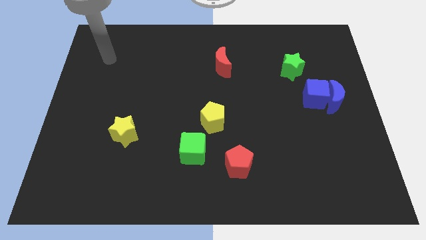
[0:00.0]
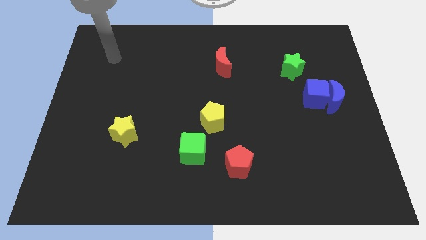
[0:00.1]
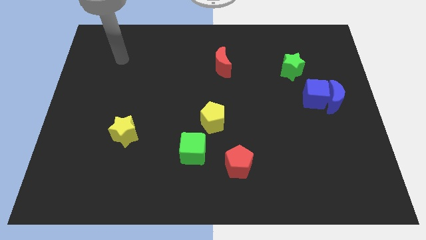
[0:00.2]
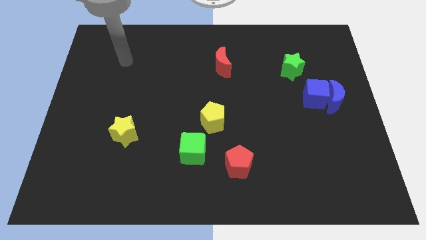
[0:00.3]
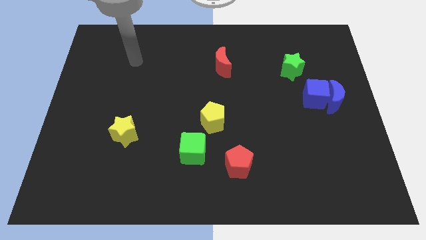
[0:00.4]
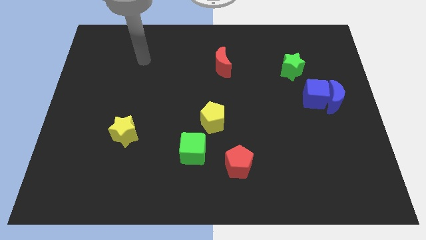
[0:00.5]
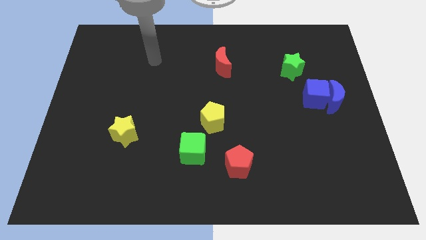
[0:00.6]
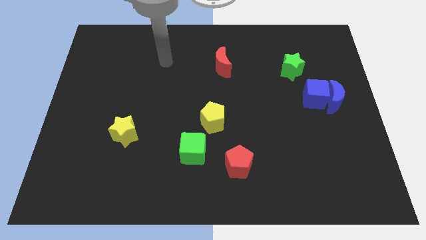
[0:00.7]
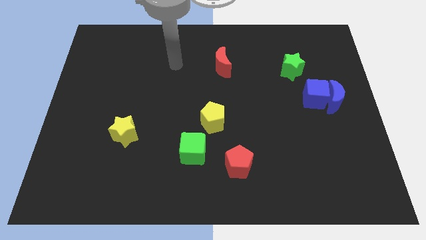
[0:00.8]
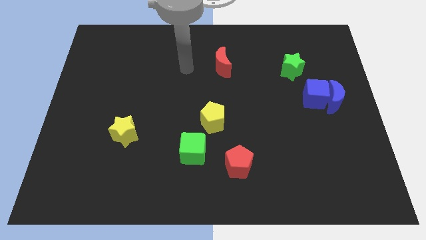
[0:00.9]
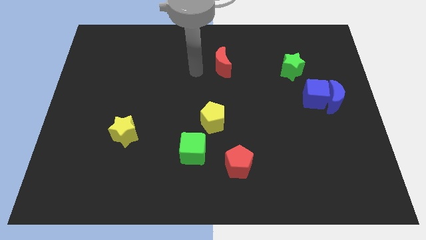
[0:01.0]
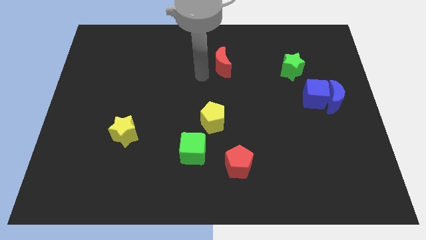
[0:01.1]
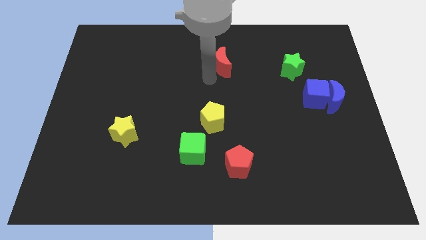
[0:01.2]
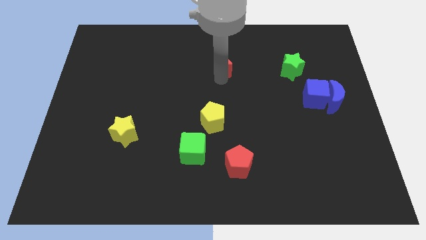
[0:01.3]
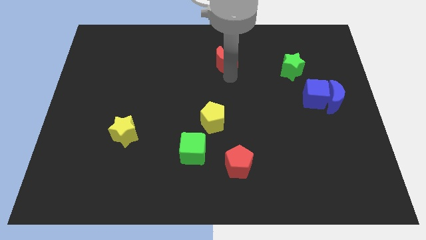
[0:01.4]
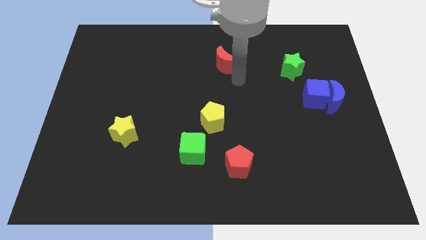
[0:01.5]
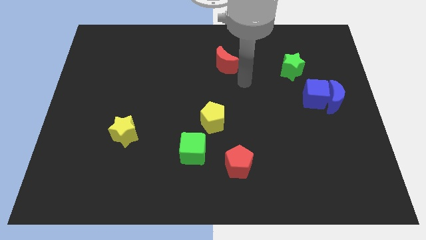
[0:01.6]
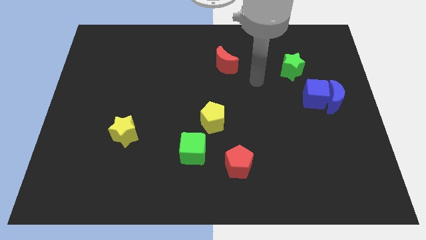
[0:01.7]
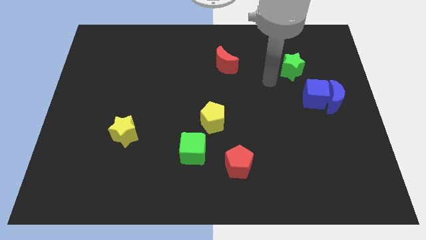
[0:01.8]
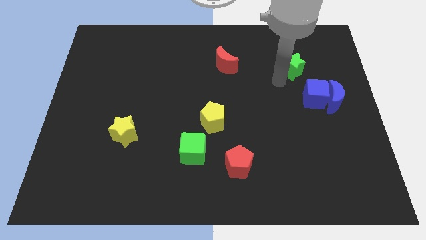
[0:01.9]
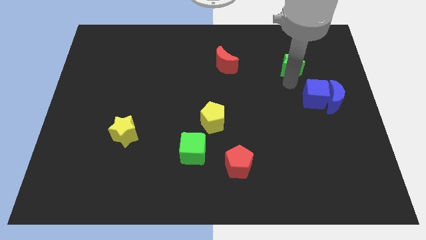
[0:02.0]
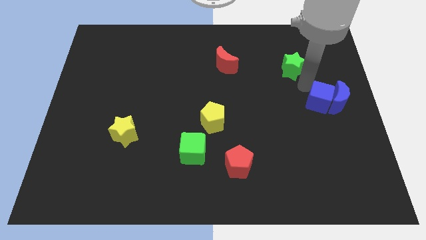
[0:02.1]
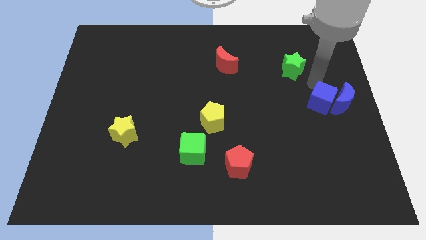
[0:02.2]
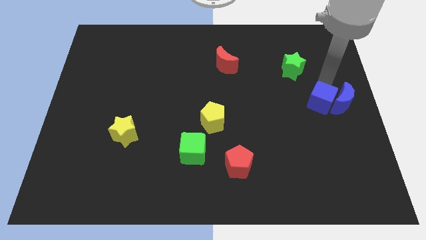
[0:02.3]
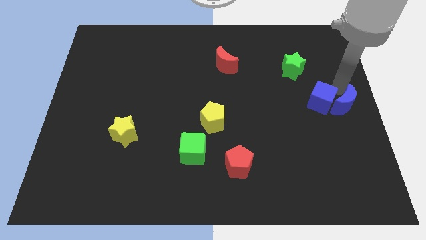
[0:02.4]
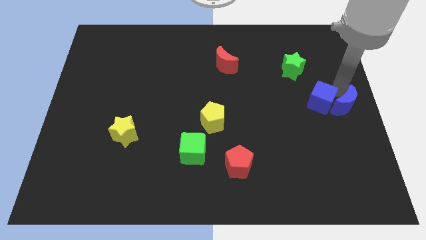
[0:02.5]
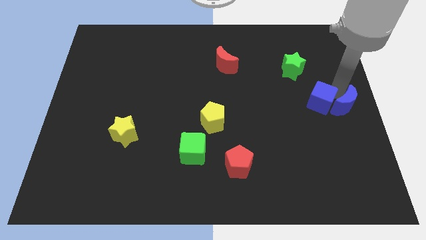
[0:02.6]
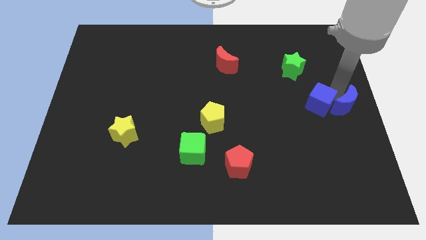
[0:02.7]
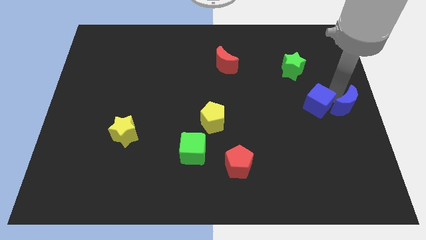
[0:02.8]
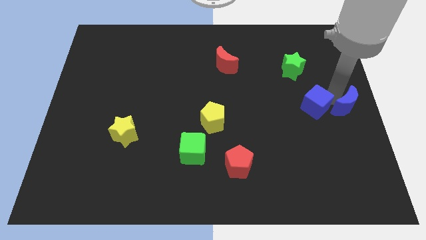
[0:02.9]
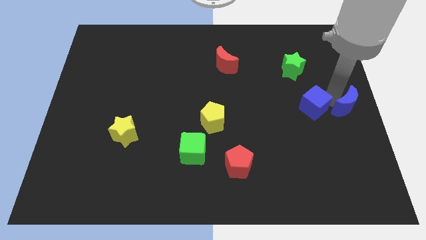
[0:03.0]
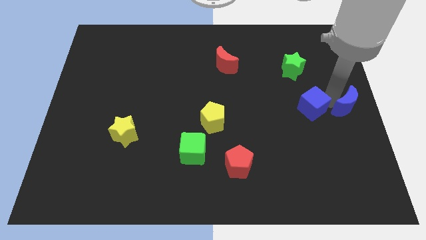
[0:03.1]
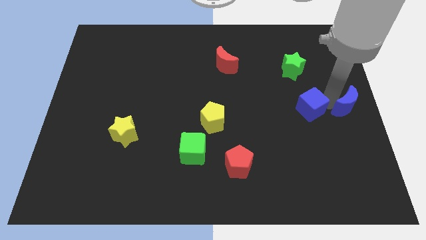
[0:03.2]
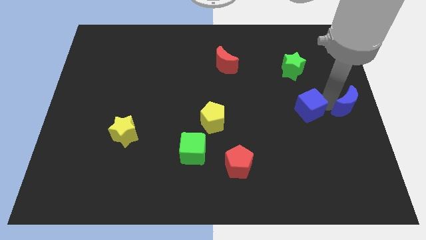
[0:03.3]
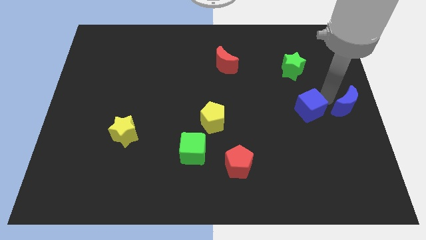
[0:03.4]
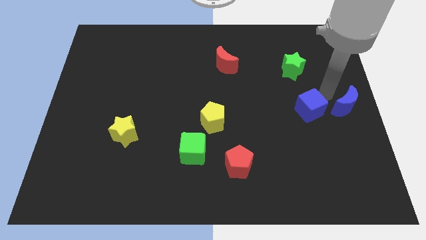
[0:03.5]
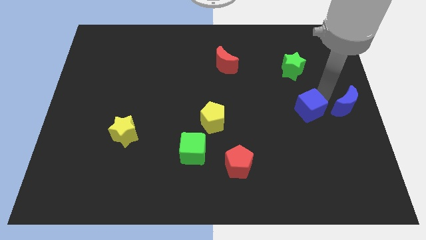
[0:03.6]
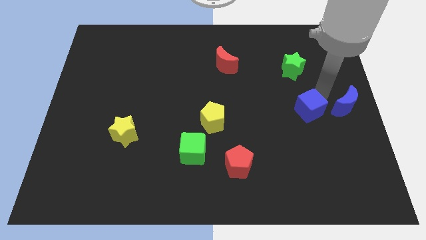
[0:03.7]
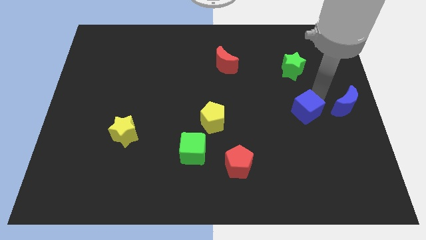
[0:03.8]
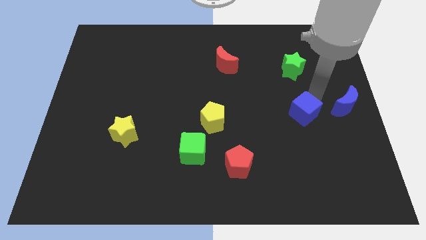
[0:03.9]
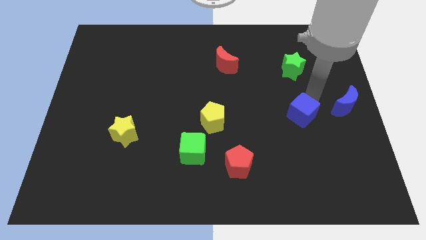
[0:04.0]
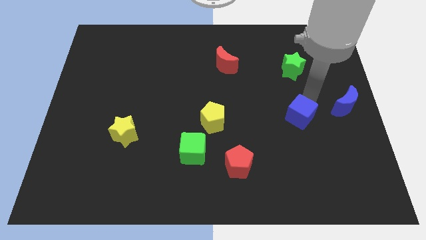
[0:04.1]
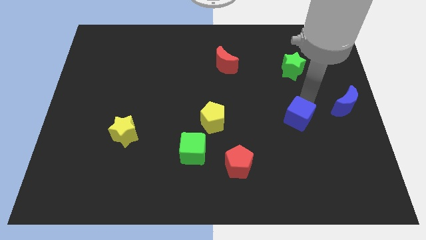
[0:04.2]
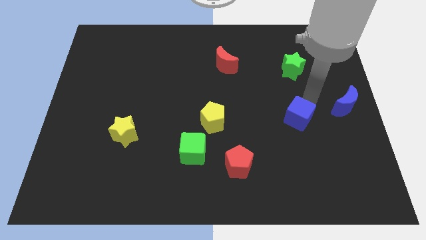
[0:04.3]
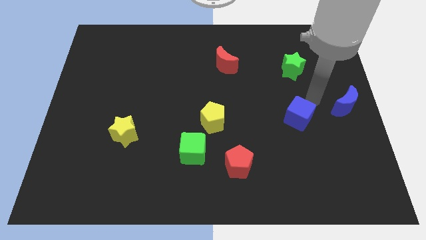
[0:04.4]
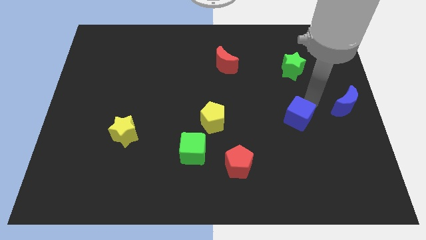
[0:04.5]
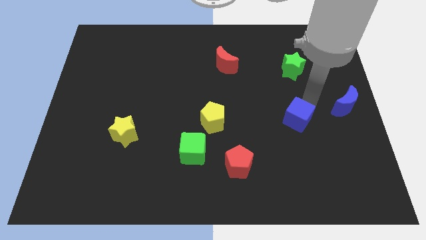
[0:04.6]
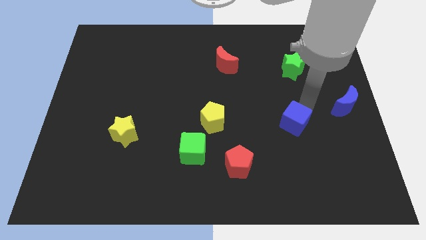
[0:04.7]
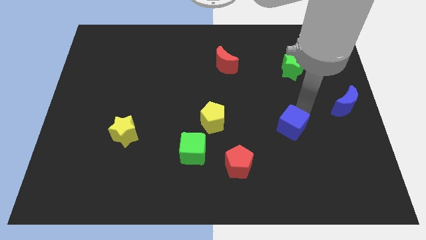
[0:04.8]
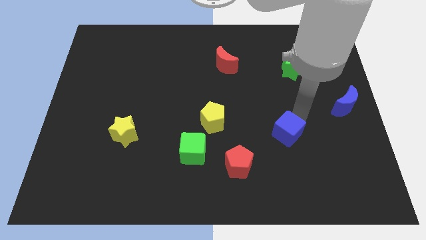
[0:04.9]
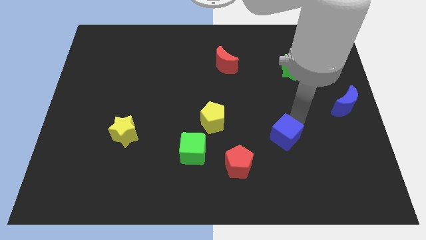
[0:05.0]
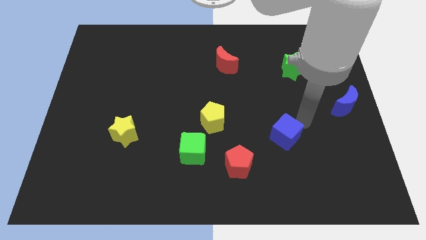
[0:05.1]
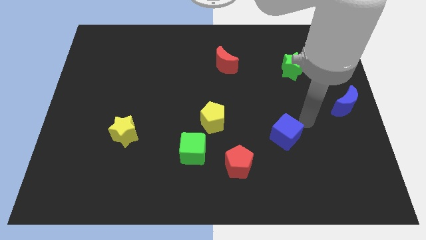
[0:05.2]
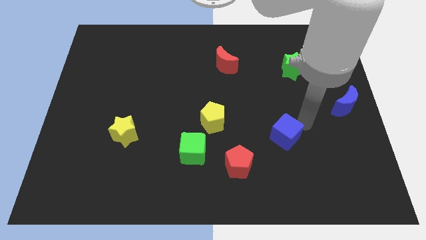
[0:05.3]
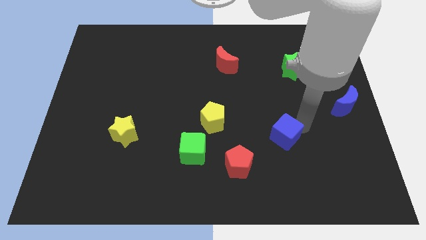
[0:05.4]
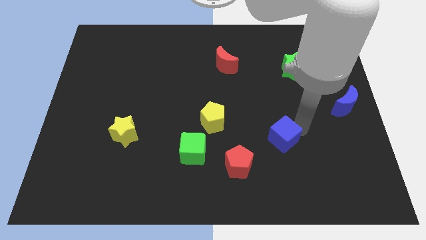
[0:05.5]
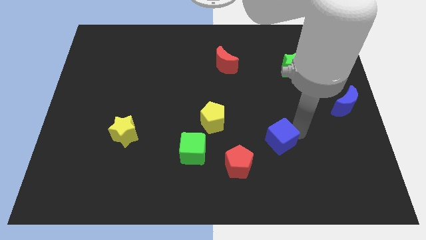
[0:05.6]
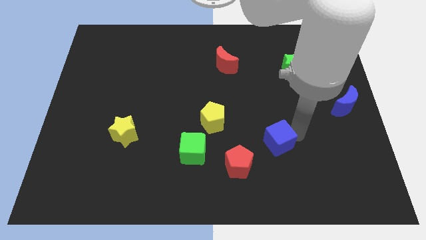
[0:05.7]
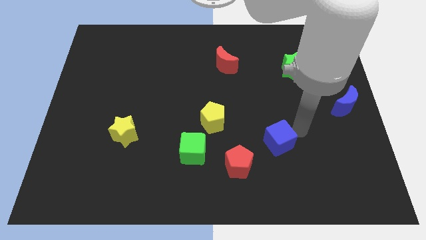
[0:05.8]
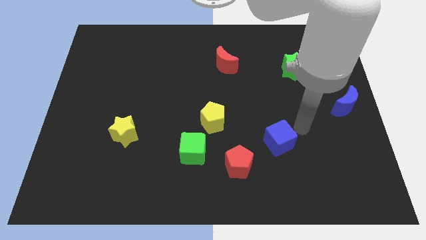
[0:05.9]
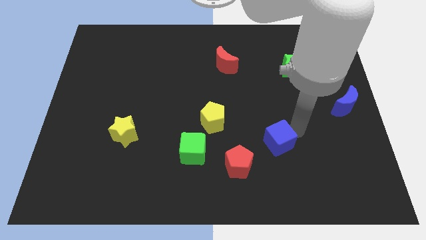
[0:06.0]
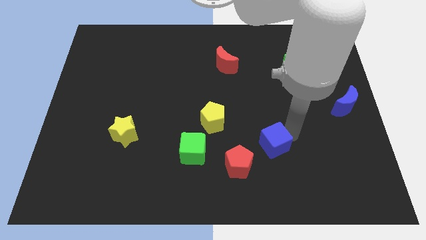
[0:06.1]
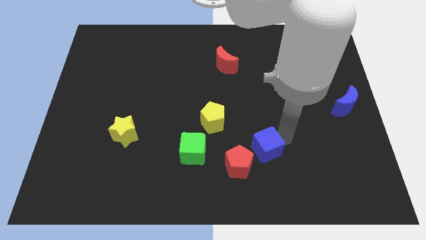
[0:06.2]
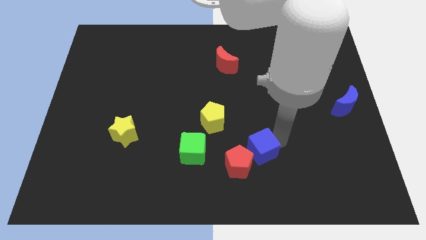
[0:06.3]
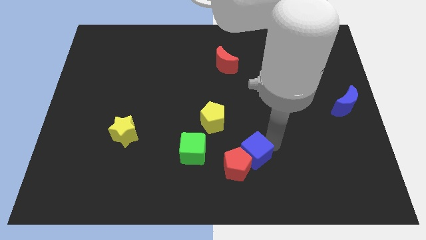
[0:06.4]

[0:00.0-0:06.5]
push the blue cube towards the red pentagon
